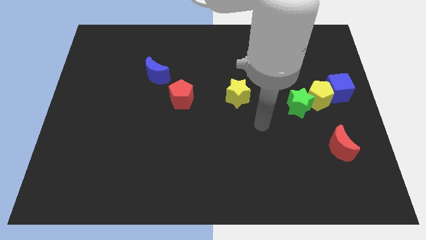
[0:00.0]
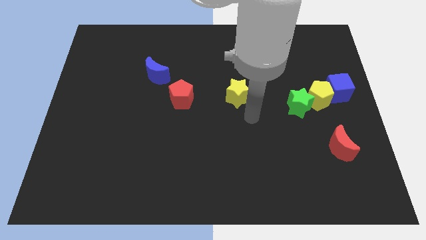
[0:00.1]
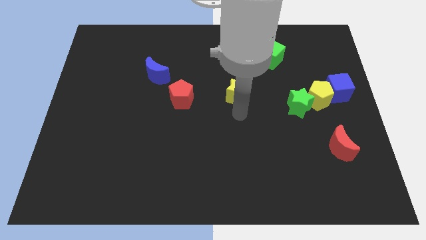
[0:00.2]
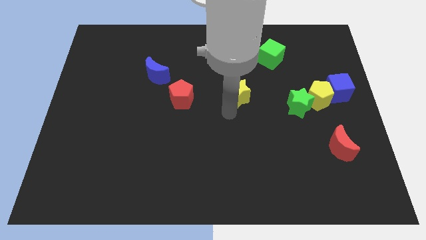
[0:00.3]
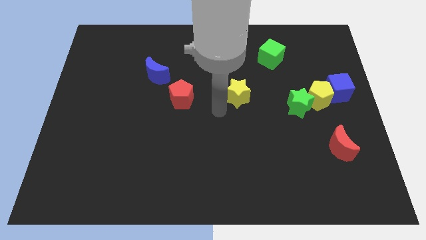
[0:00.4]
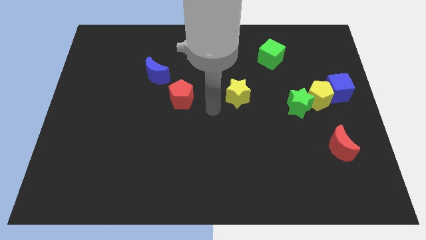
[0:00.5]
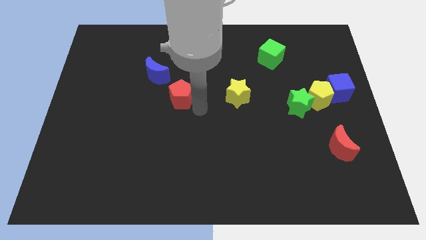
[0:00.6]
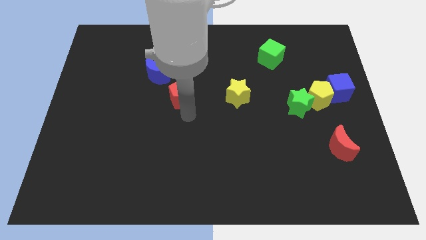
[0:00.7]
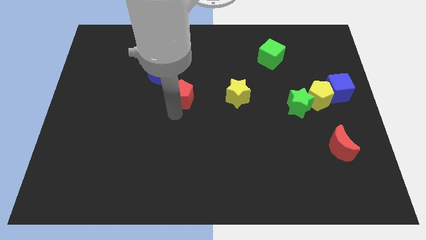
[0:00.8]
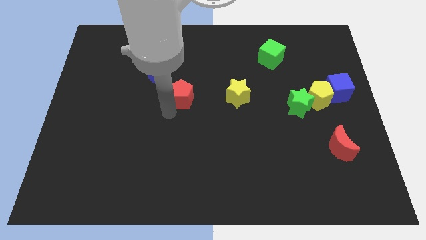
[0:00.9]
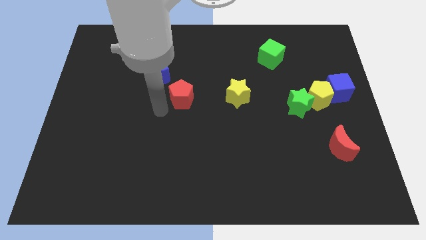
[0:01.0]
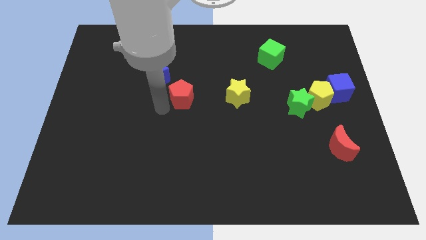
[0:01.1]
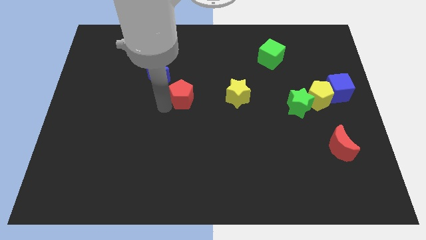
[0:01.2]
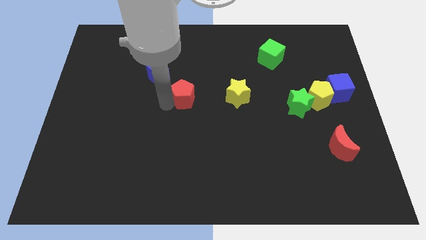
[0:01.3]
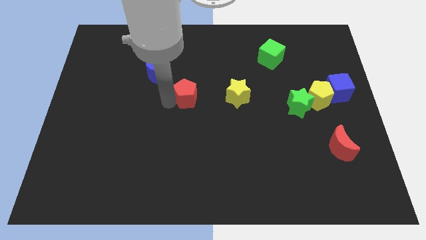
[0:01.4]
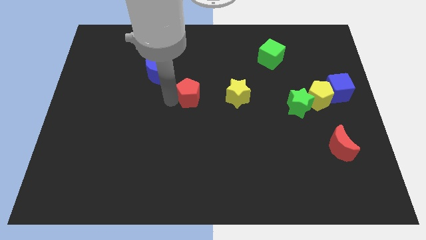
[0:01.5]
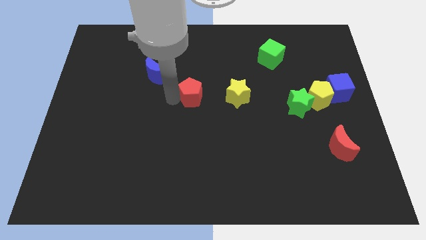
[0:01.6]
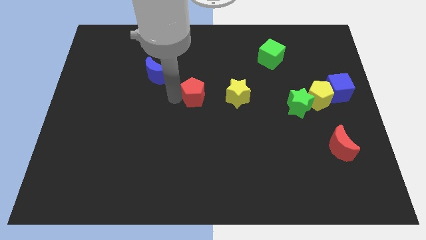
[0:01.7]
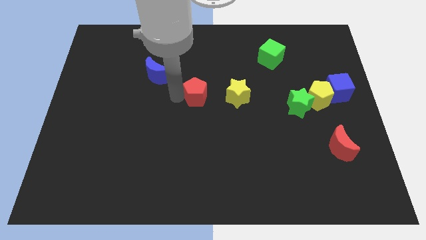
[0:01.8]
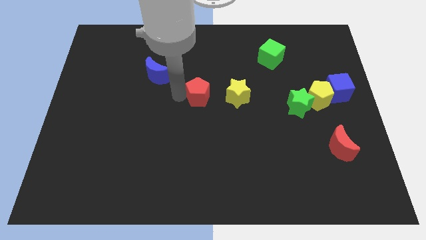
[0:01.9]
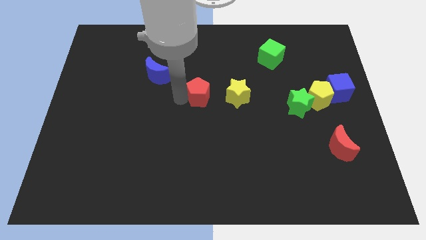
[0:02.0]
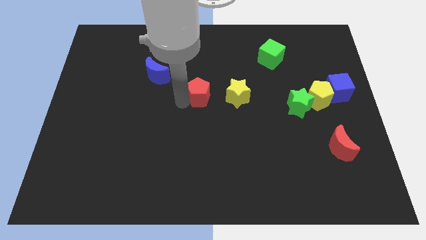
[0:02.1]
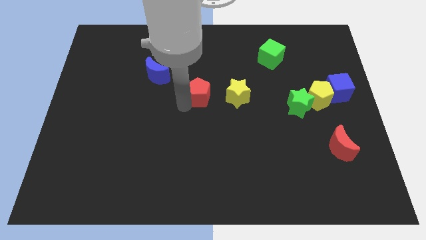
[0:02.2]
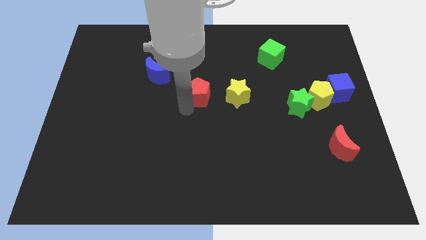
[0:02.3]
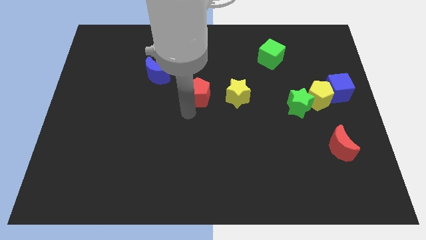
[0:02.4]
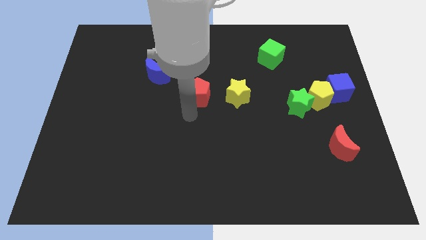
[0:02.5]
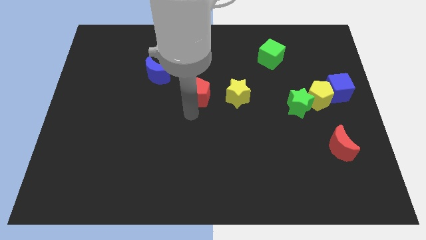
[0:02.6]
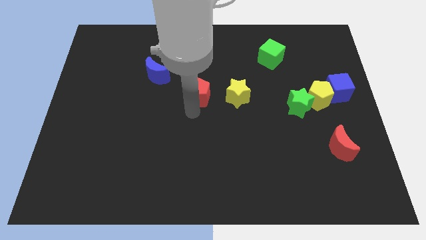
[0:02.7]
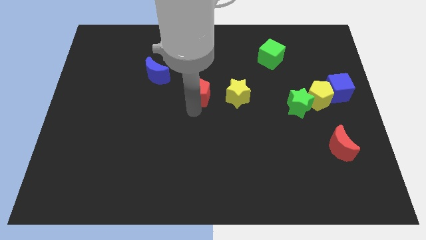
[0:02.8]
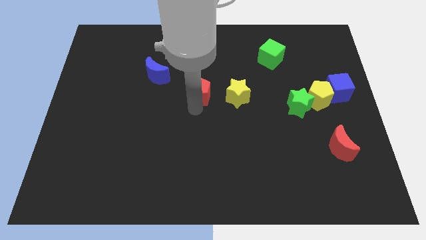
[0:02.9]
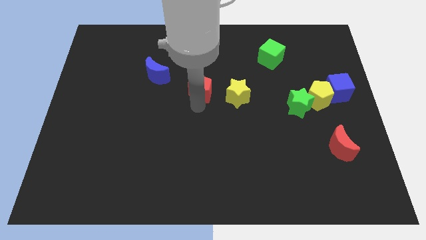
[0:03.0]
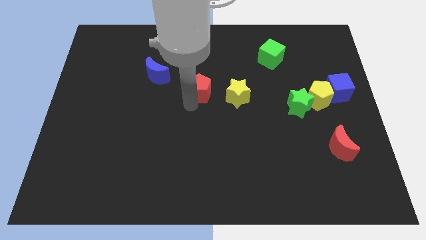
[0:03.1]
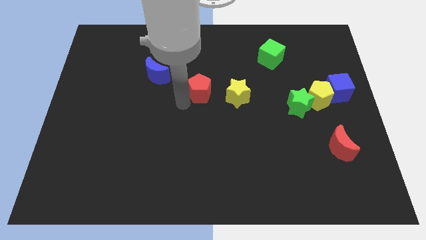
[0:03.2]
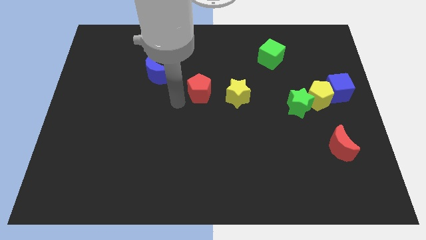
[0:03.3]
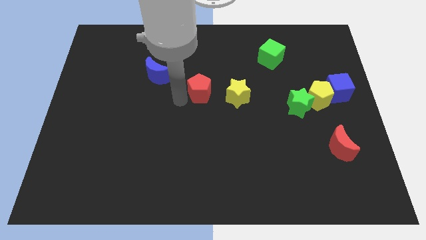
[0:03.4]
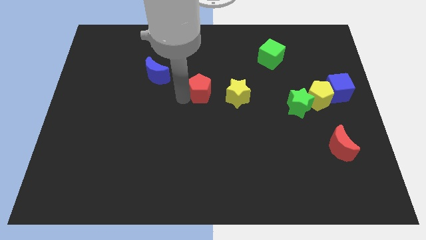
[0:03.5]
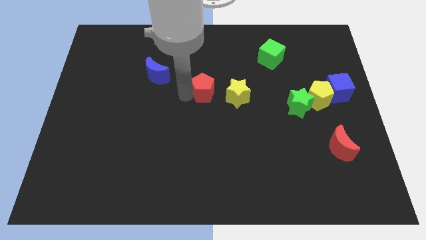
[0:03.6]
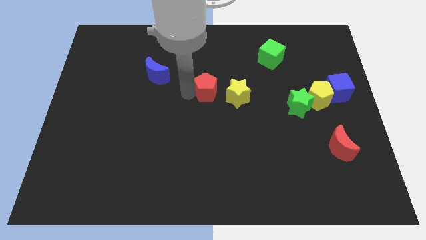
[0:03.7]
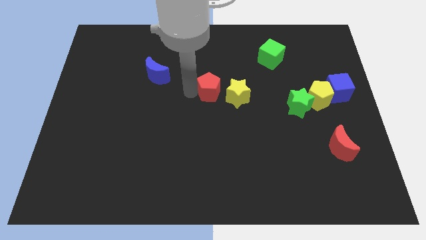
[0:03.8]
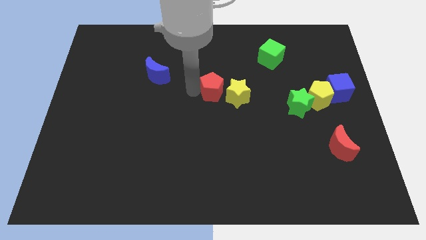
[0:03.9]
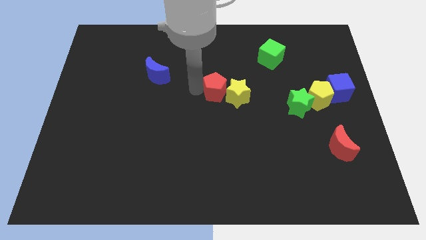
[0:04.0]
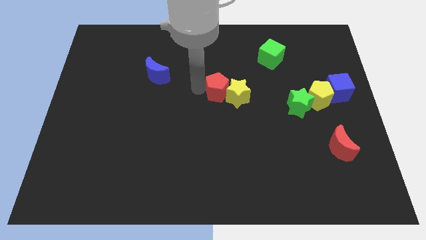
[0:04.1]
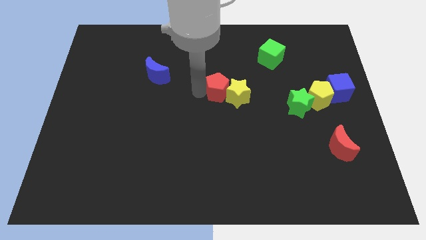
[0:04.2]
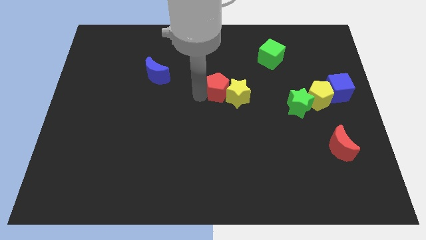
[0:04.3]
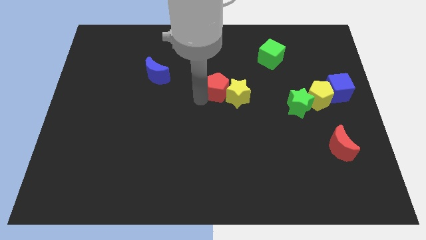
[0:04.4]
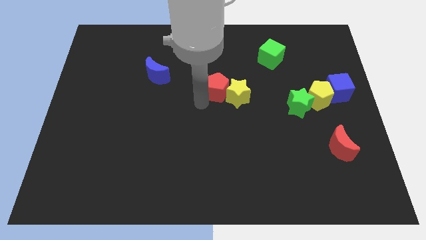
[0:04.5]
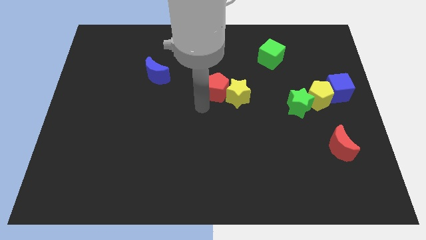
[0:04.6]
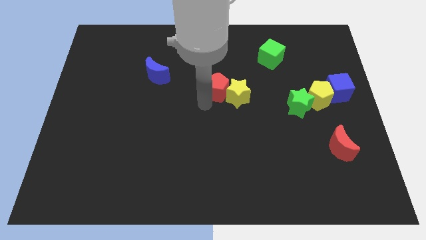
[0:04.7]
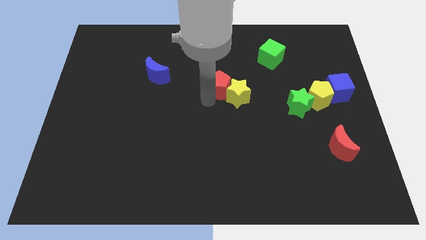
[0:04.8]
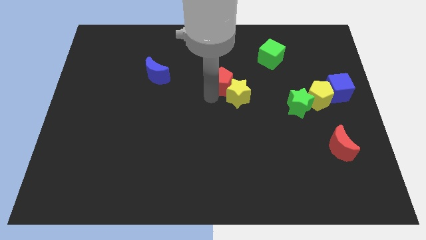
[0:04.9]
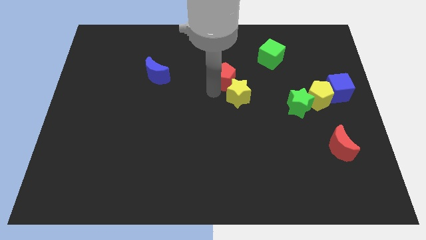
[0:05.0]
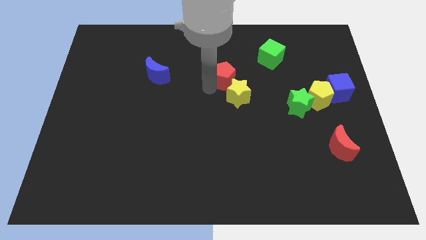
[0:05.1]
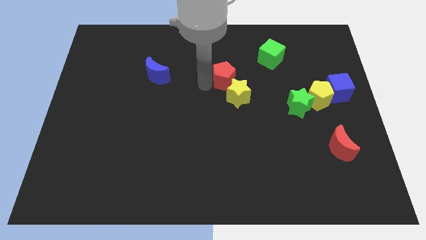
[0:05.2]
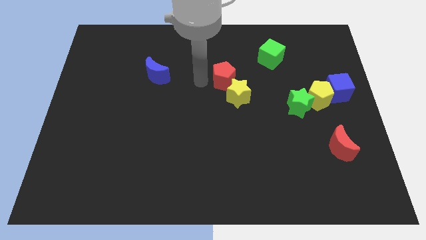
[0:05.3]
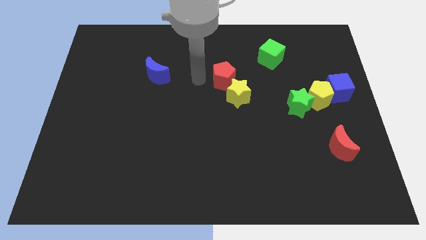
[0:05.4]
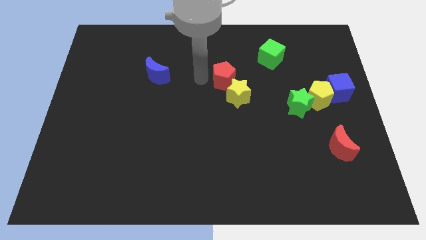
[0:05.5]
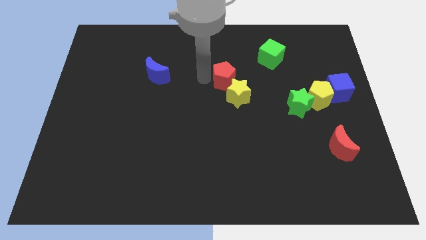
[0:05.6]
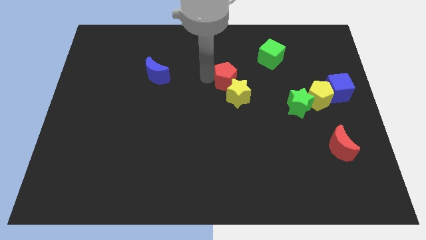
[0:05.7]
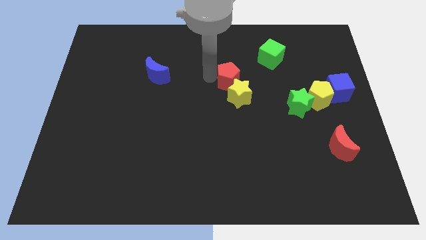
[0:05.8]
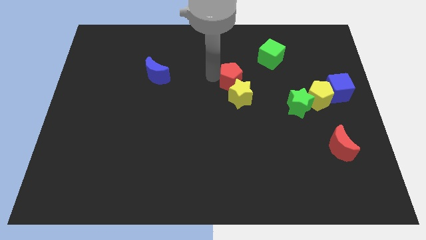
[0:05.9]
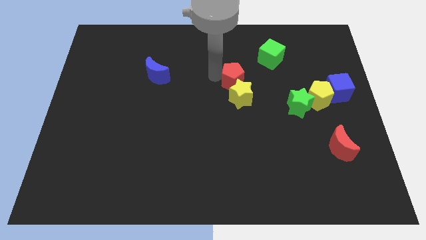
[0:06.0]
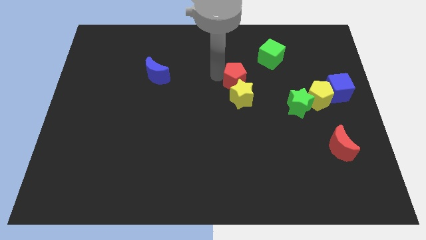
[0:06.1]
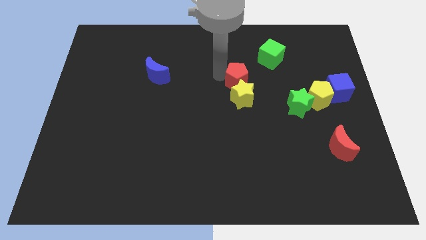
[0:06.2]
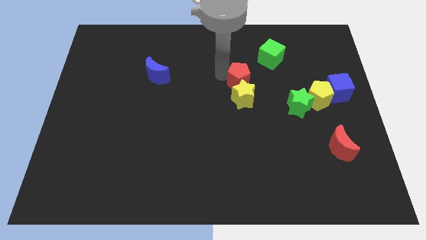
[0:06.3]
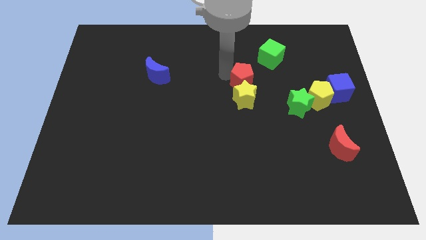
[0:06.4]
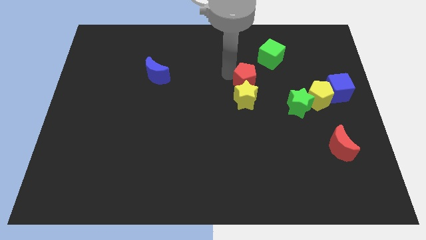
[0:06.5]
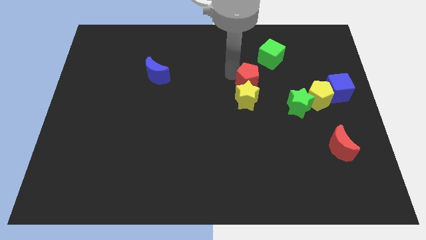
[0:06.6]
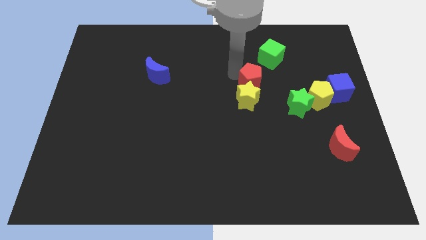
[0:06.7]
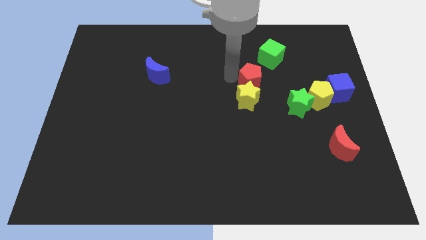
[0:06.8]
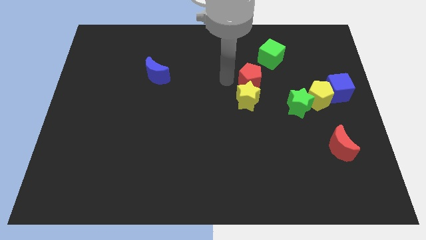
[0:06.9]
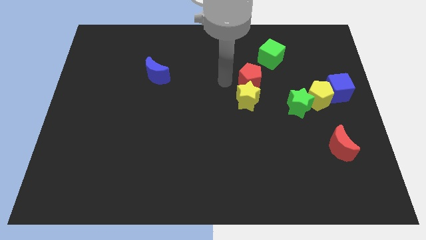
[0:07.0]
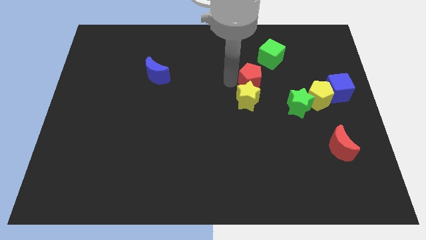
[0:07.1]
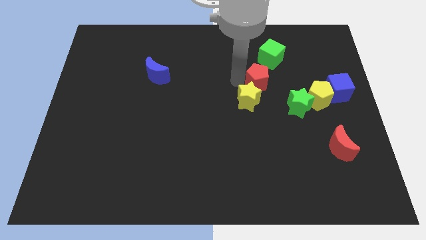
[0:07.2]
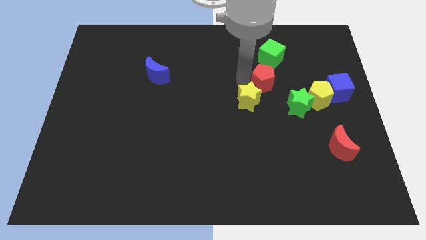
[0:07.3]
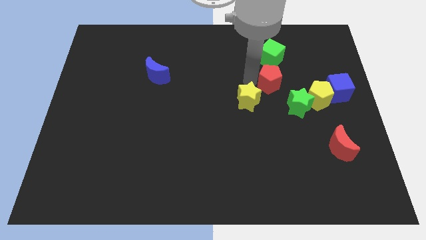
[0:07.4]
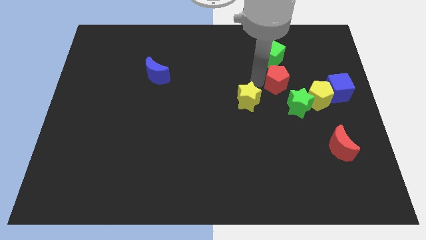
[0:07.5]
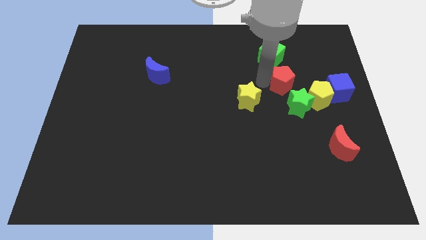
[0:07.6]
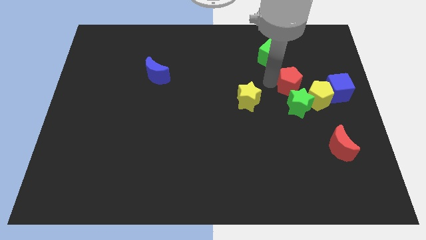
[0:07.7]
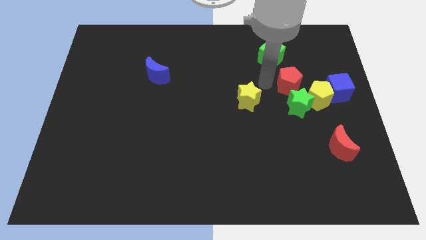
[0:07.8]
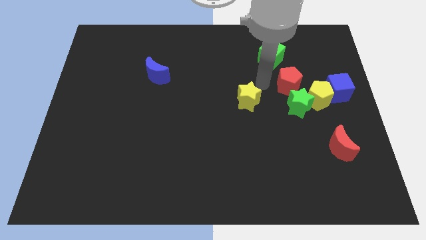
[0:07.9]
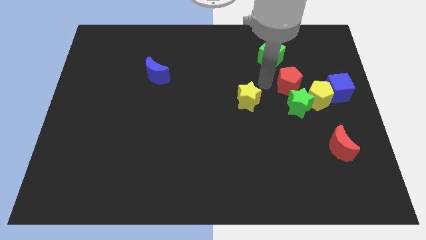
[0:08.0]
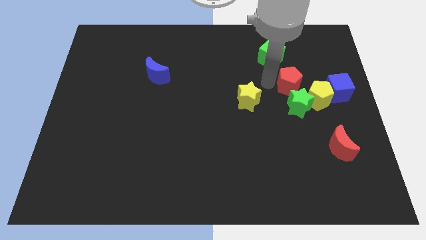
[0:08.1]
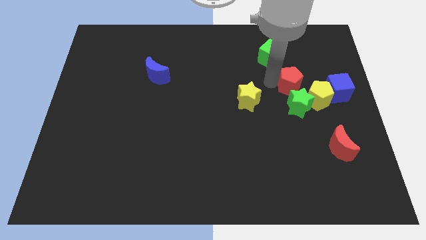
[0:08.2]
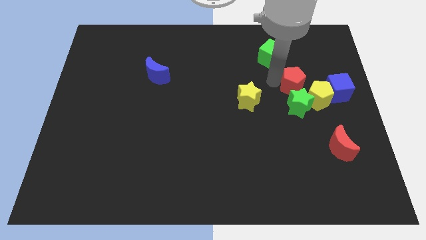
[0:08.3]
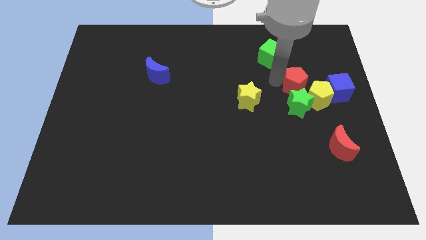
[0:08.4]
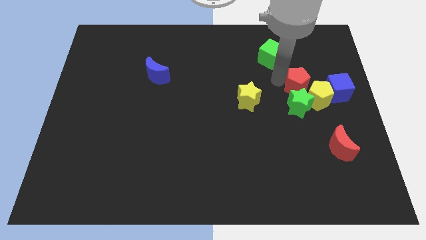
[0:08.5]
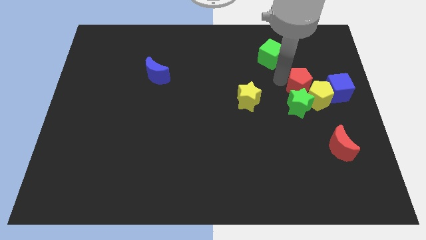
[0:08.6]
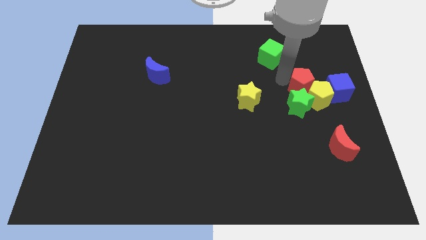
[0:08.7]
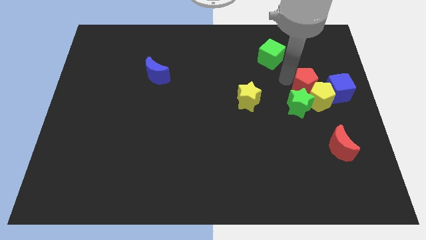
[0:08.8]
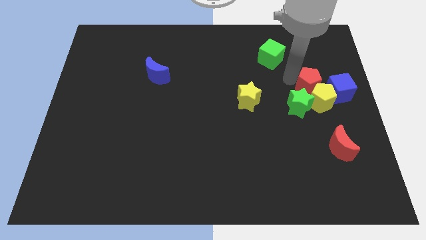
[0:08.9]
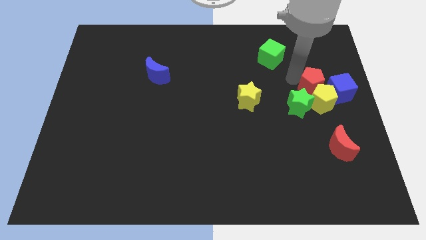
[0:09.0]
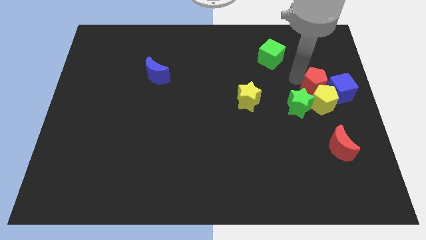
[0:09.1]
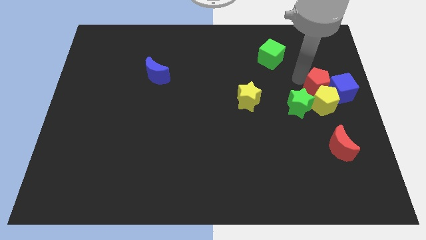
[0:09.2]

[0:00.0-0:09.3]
push the red pentagon to the blue cube
